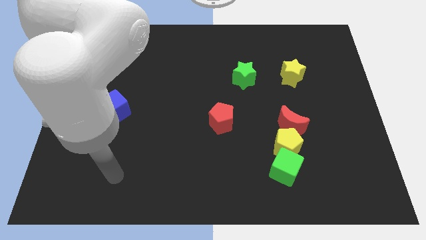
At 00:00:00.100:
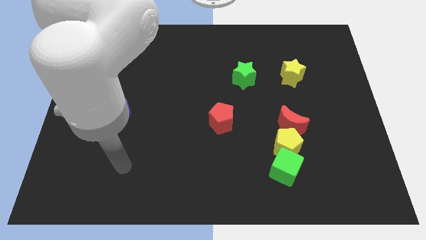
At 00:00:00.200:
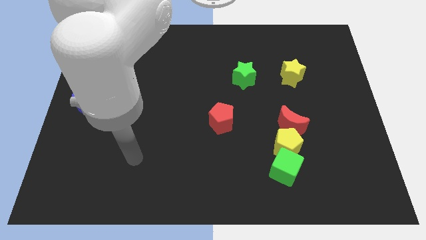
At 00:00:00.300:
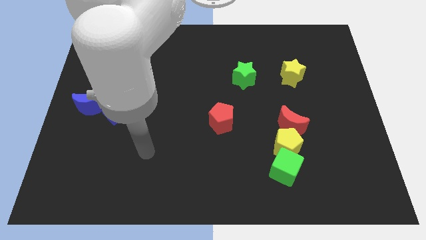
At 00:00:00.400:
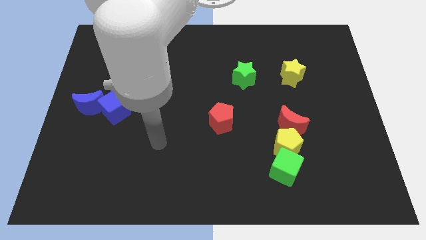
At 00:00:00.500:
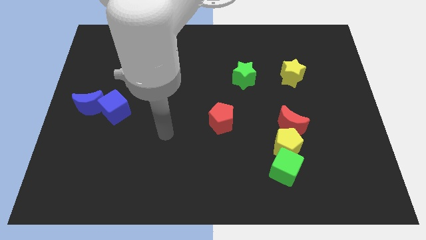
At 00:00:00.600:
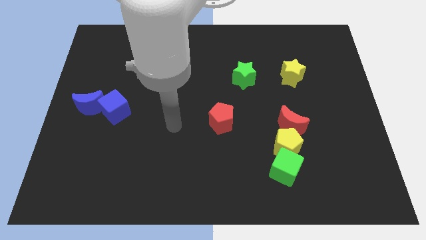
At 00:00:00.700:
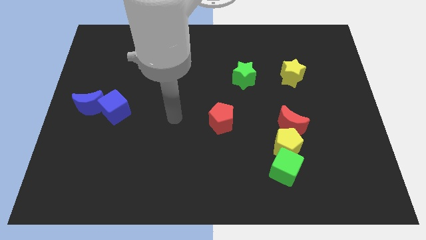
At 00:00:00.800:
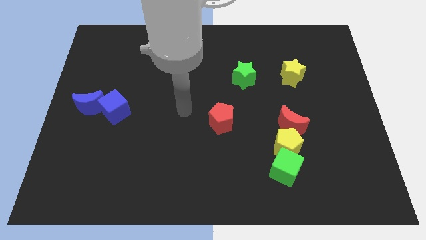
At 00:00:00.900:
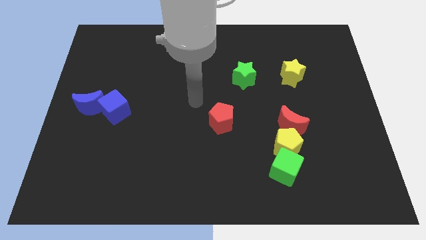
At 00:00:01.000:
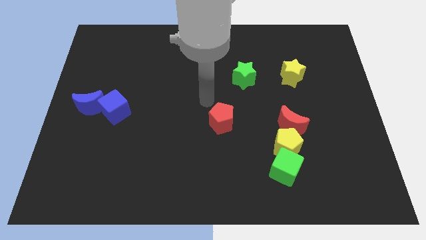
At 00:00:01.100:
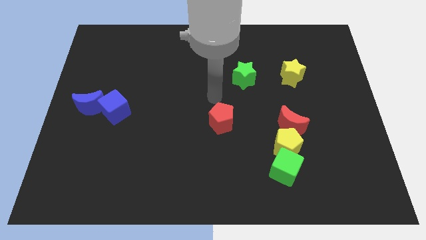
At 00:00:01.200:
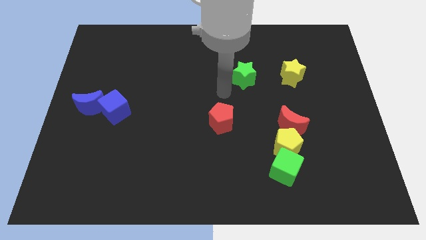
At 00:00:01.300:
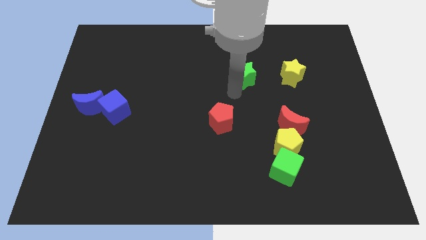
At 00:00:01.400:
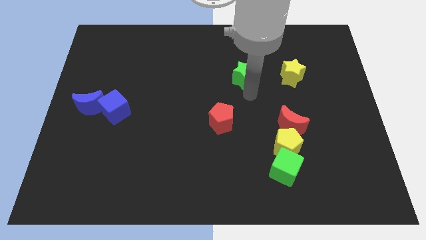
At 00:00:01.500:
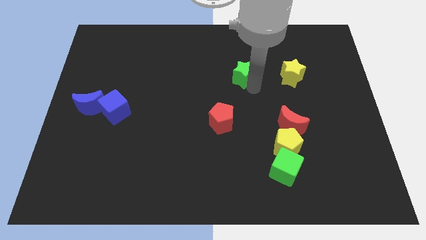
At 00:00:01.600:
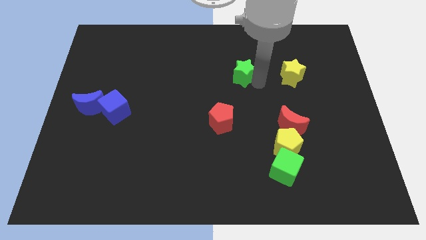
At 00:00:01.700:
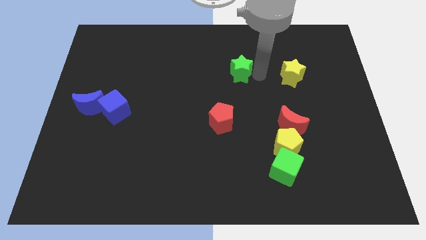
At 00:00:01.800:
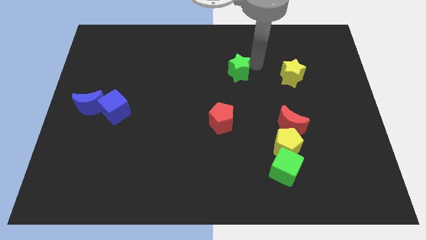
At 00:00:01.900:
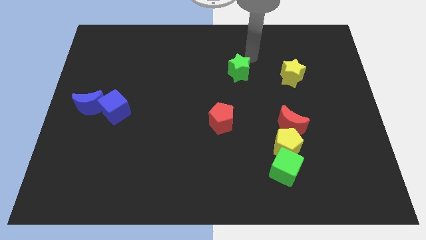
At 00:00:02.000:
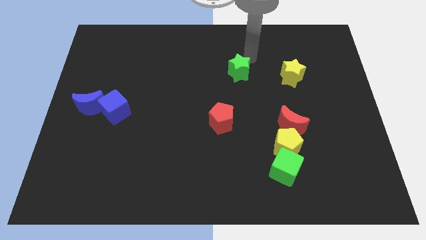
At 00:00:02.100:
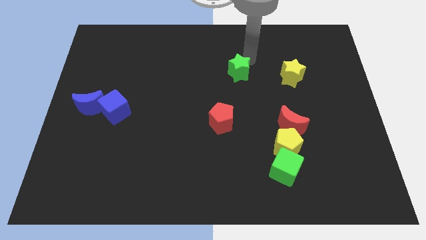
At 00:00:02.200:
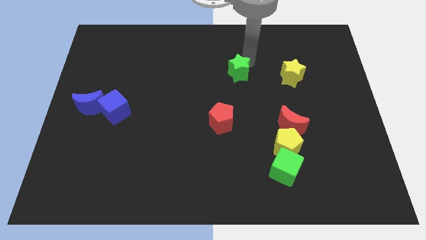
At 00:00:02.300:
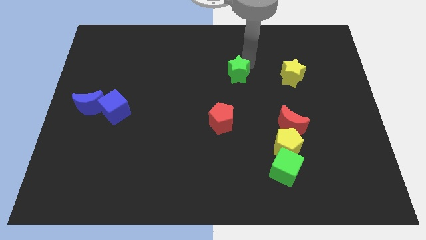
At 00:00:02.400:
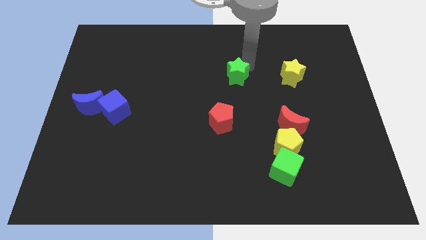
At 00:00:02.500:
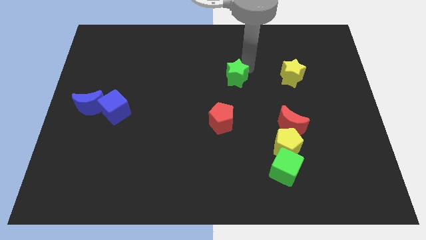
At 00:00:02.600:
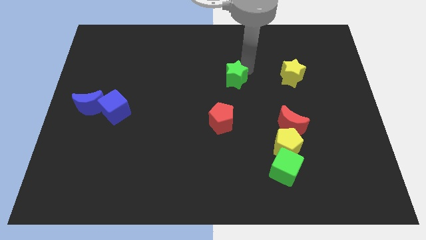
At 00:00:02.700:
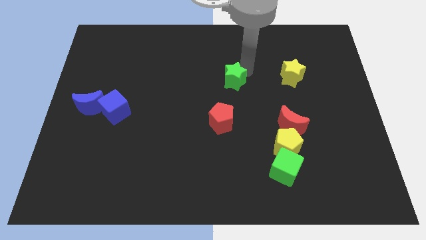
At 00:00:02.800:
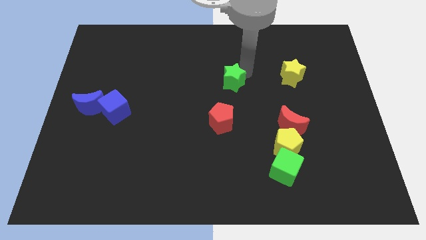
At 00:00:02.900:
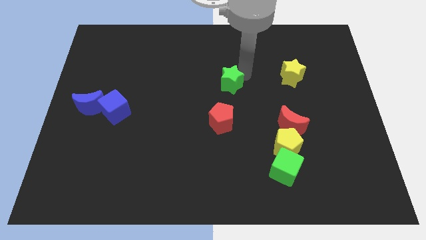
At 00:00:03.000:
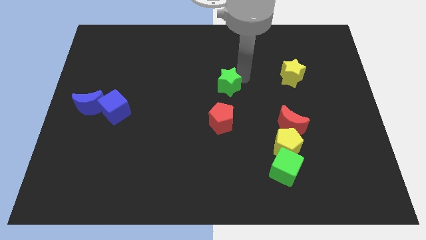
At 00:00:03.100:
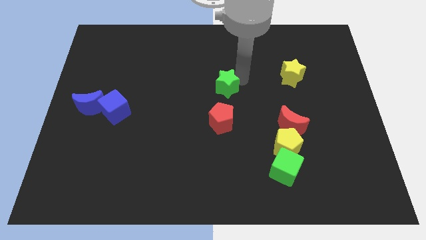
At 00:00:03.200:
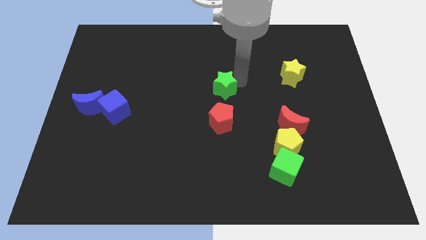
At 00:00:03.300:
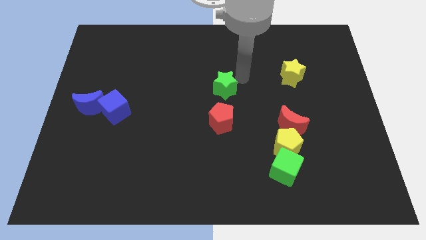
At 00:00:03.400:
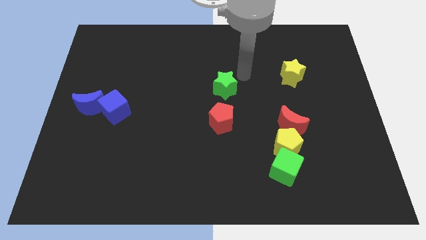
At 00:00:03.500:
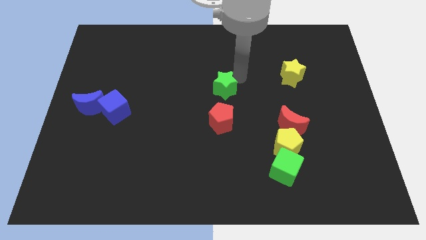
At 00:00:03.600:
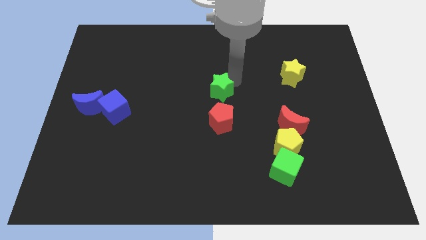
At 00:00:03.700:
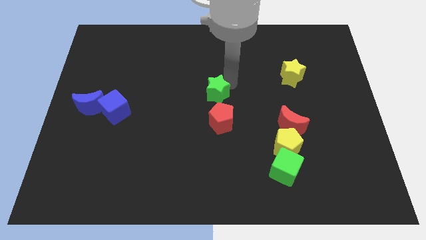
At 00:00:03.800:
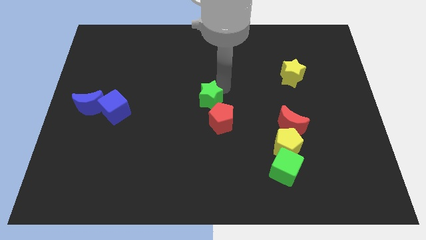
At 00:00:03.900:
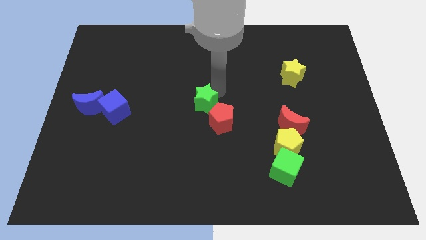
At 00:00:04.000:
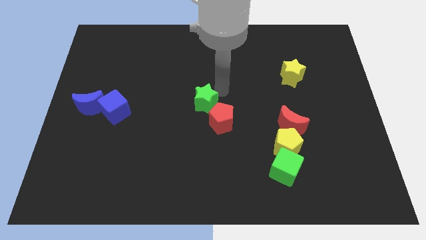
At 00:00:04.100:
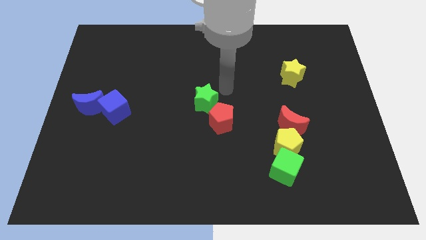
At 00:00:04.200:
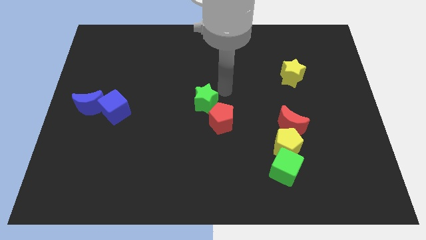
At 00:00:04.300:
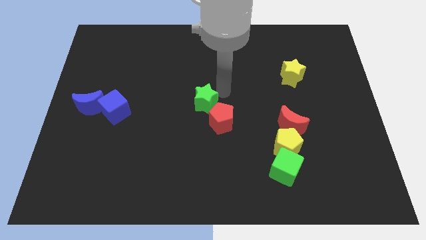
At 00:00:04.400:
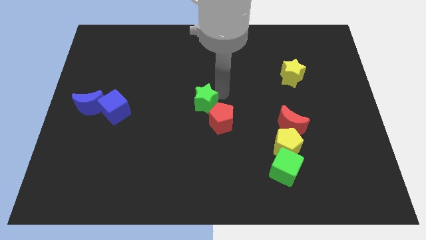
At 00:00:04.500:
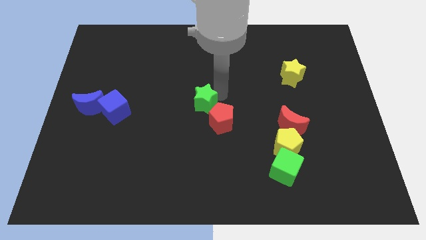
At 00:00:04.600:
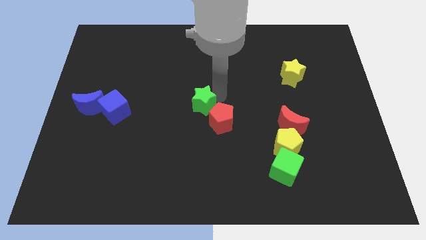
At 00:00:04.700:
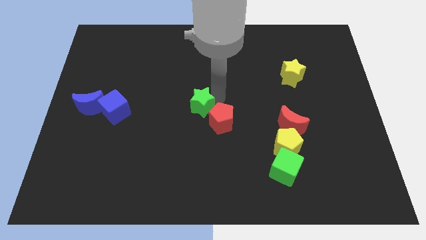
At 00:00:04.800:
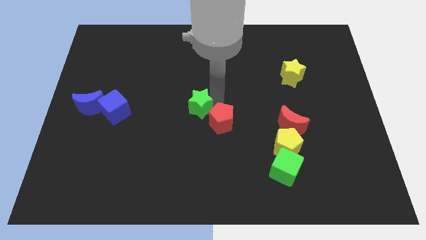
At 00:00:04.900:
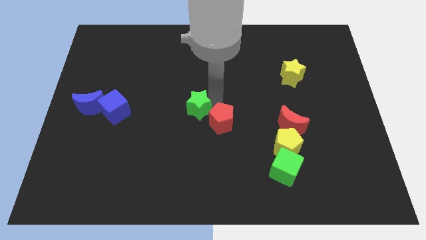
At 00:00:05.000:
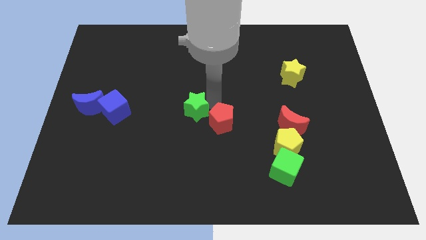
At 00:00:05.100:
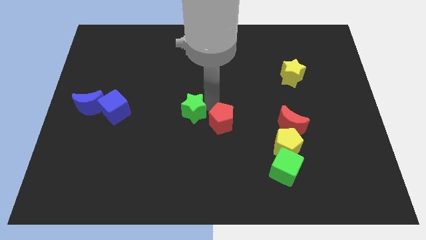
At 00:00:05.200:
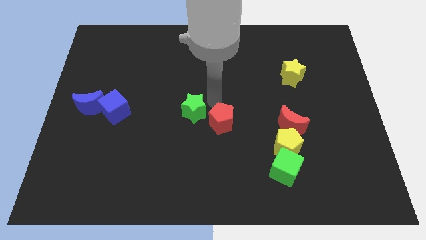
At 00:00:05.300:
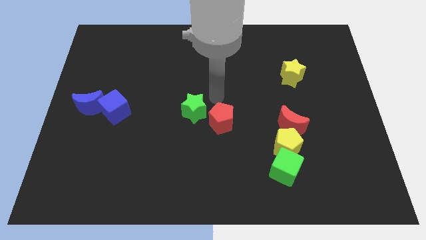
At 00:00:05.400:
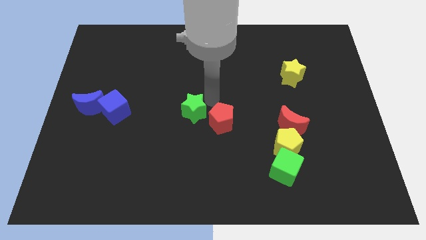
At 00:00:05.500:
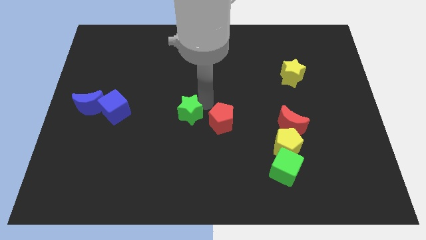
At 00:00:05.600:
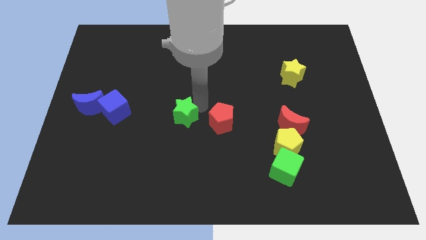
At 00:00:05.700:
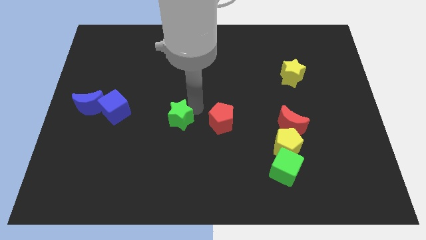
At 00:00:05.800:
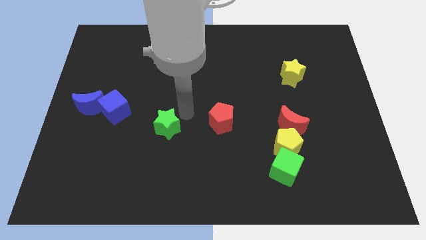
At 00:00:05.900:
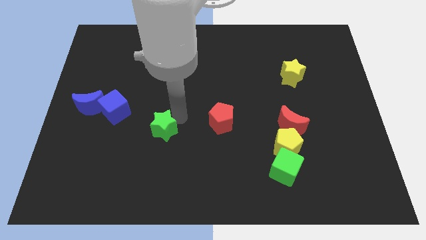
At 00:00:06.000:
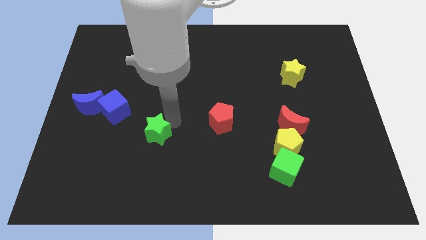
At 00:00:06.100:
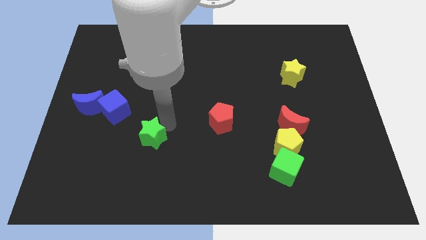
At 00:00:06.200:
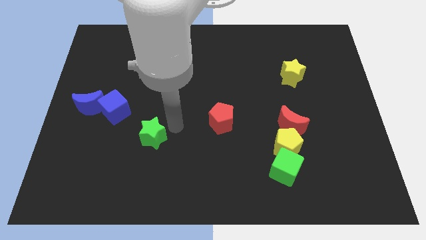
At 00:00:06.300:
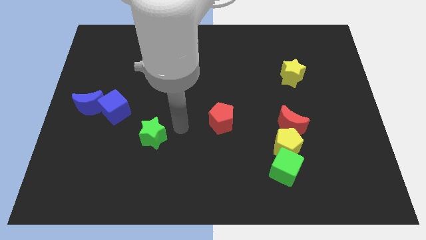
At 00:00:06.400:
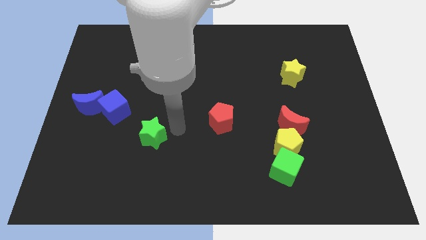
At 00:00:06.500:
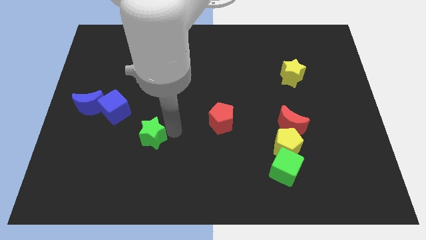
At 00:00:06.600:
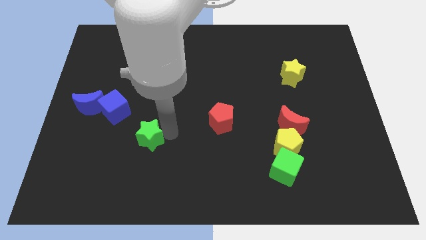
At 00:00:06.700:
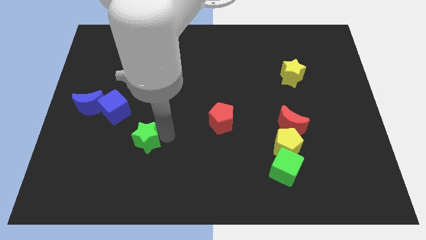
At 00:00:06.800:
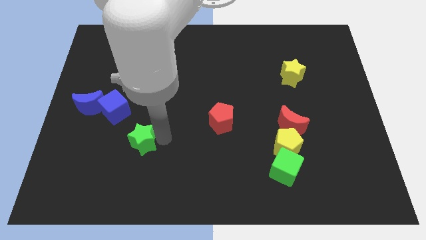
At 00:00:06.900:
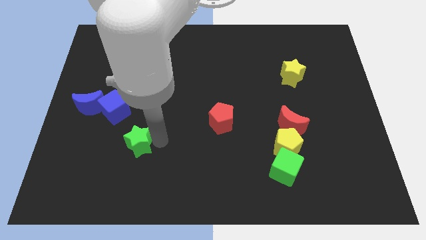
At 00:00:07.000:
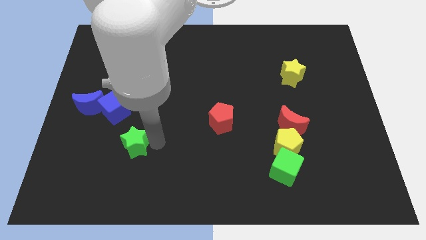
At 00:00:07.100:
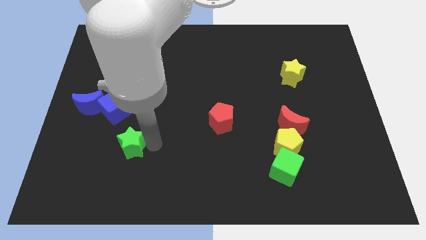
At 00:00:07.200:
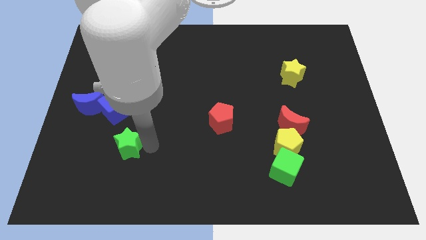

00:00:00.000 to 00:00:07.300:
put the green star to the bottom side of the blue cube
